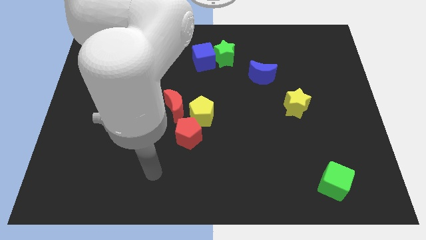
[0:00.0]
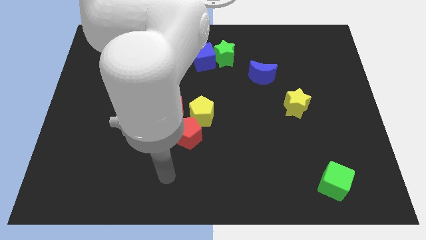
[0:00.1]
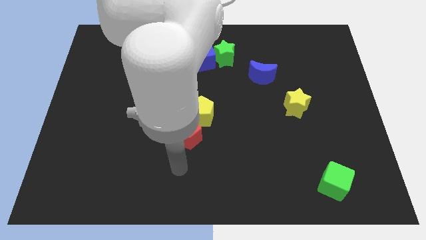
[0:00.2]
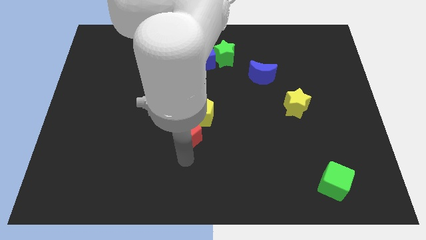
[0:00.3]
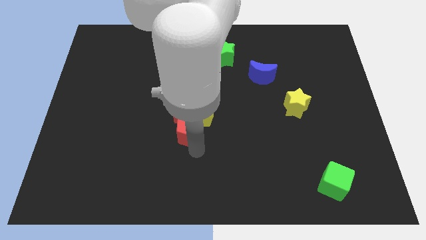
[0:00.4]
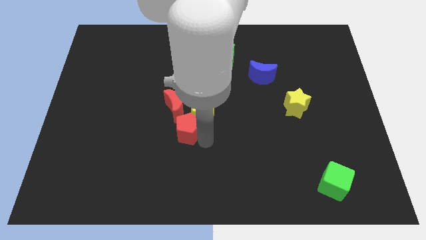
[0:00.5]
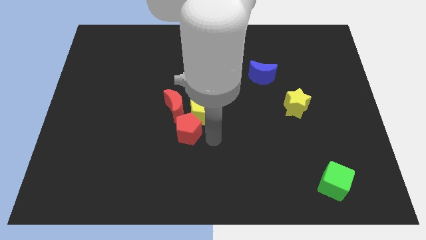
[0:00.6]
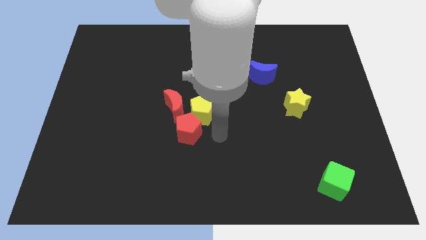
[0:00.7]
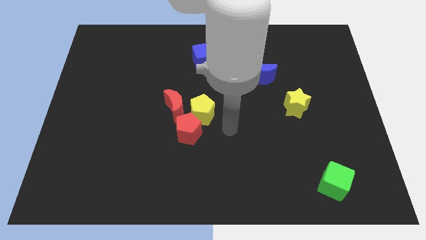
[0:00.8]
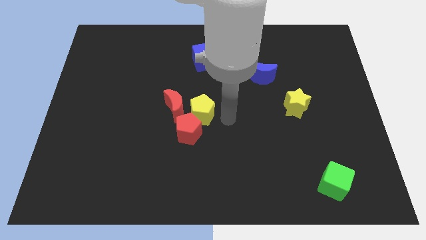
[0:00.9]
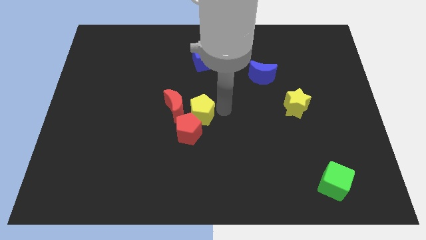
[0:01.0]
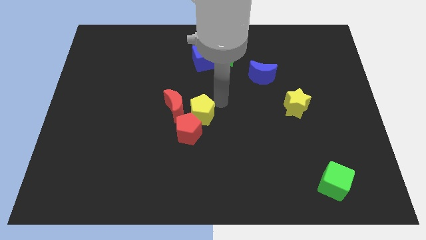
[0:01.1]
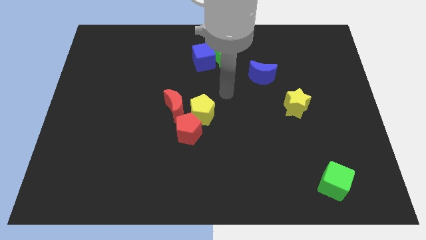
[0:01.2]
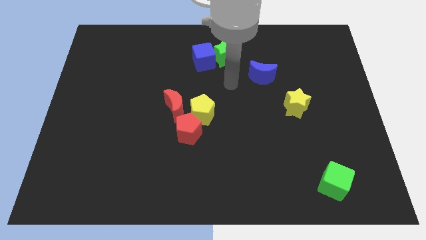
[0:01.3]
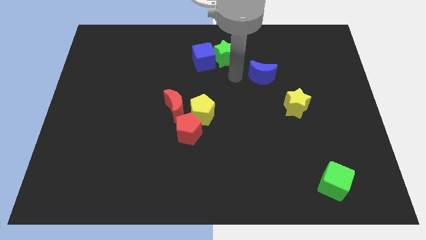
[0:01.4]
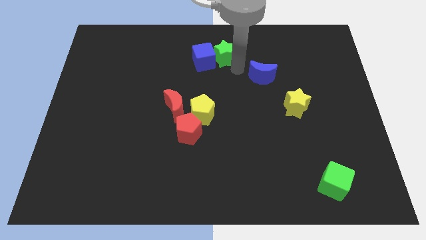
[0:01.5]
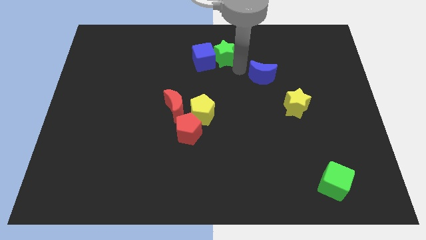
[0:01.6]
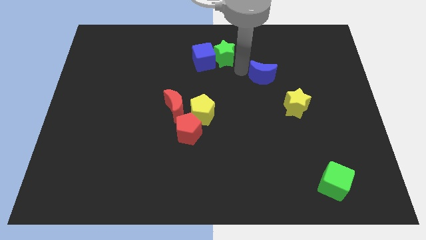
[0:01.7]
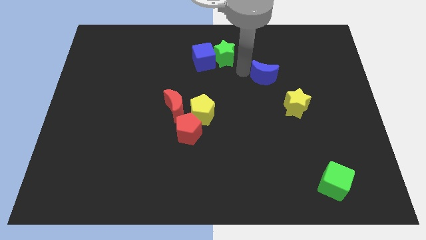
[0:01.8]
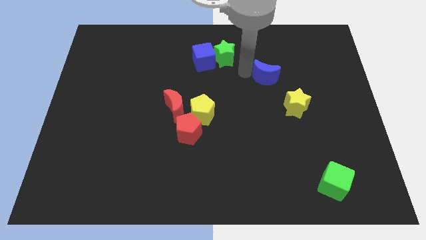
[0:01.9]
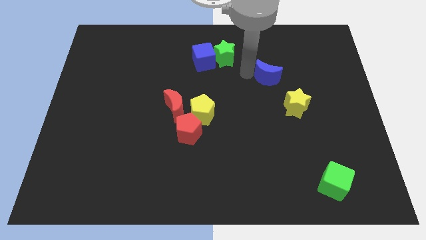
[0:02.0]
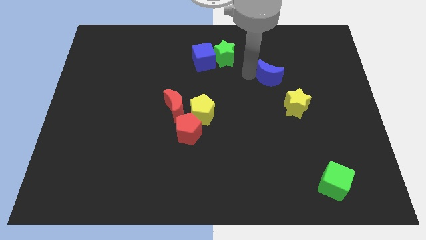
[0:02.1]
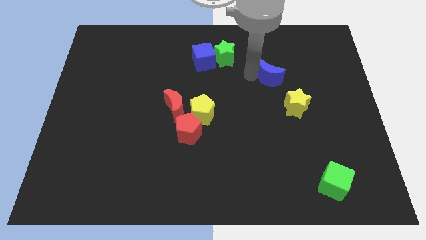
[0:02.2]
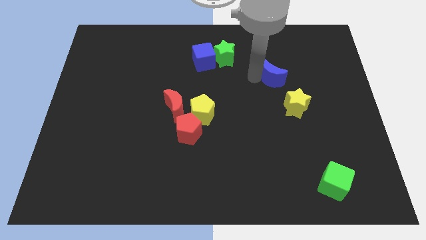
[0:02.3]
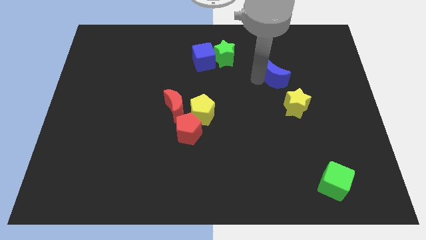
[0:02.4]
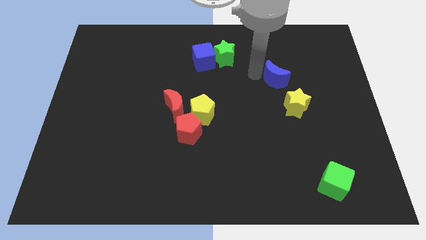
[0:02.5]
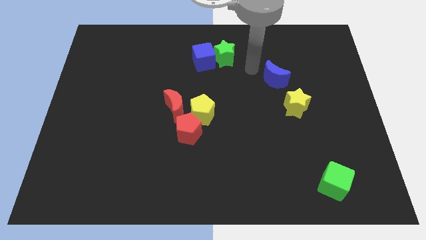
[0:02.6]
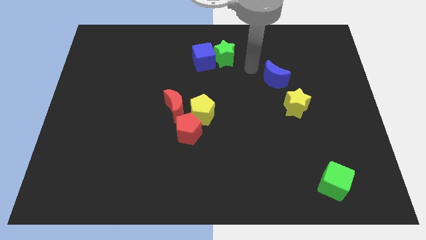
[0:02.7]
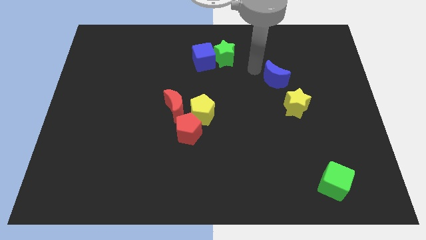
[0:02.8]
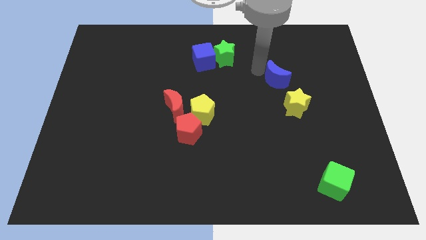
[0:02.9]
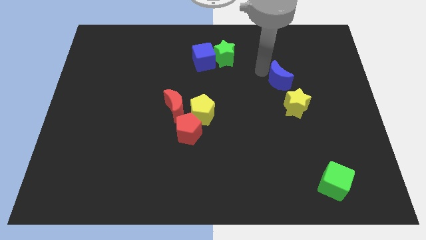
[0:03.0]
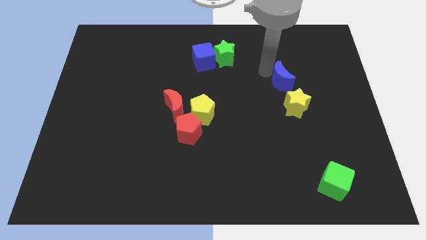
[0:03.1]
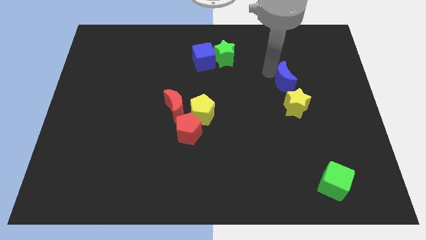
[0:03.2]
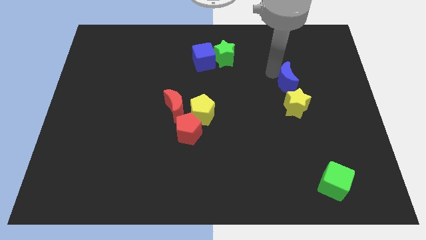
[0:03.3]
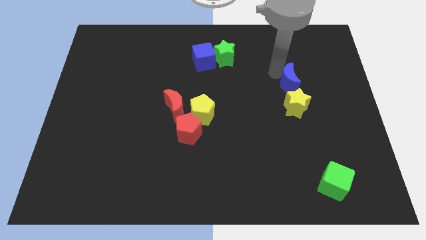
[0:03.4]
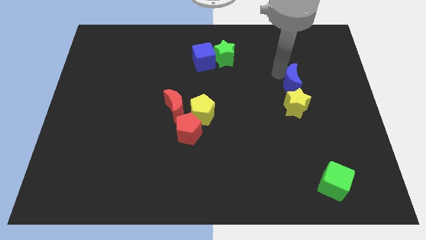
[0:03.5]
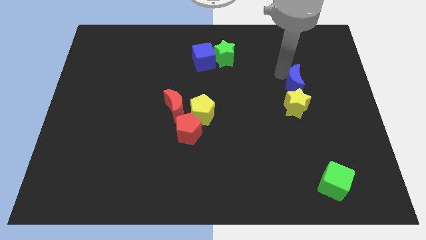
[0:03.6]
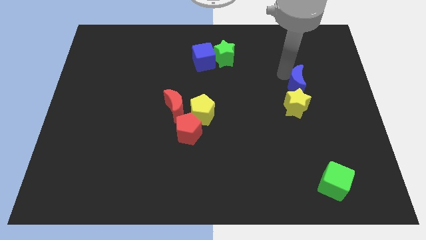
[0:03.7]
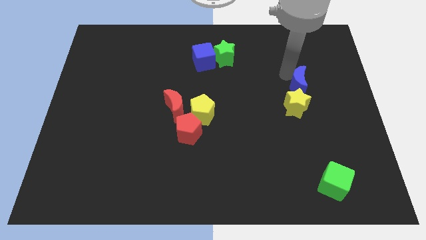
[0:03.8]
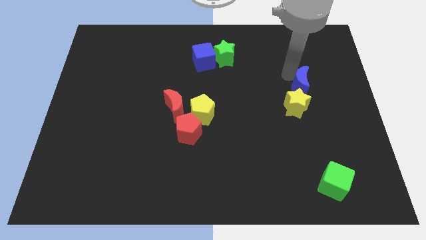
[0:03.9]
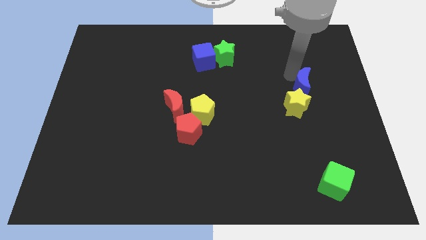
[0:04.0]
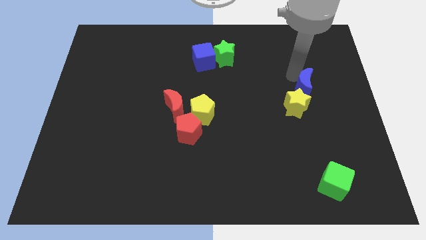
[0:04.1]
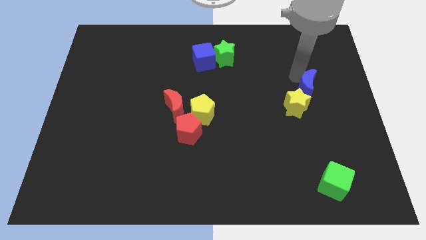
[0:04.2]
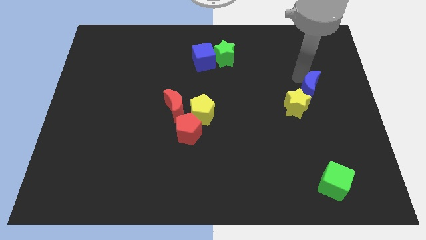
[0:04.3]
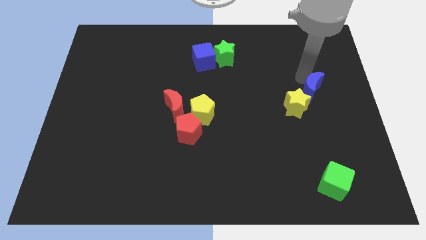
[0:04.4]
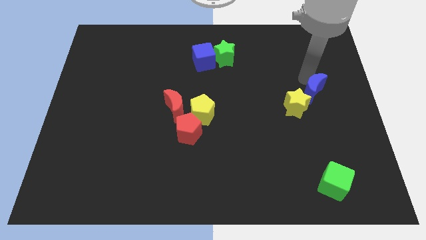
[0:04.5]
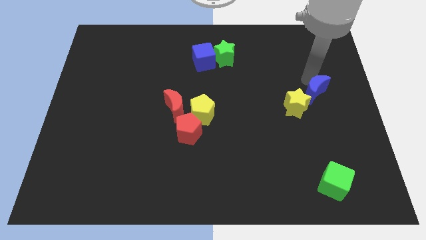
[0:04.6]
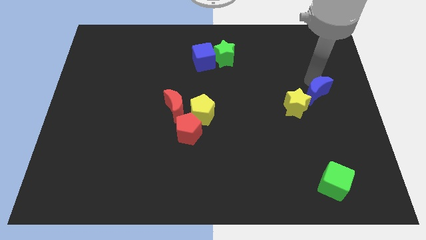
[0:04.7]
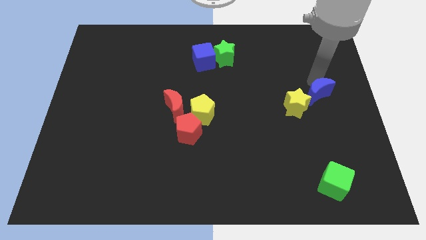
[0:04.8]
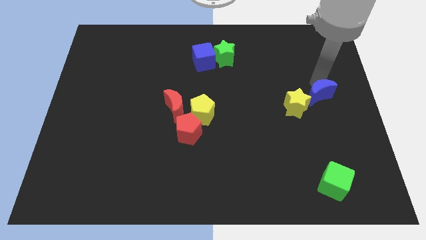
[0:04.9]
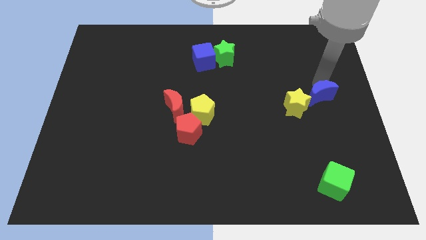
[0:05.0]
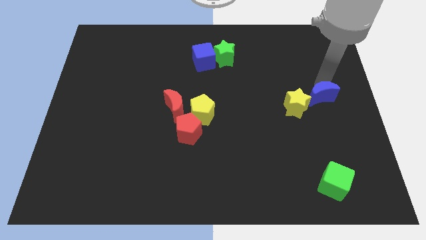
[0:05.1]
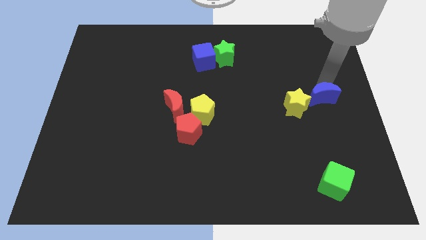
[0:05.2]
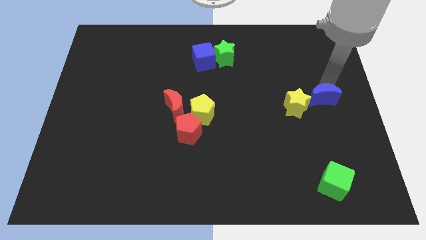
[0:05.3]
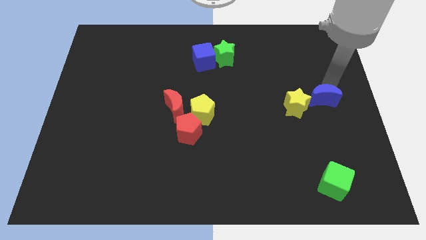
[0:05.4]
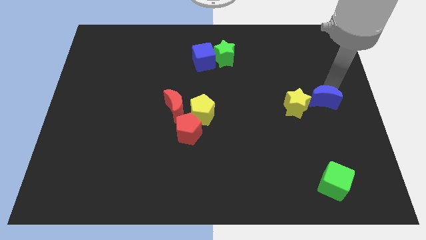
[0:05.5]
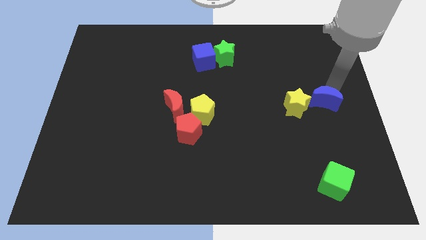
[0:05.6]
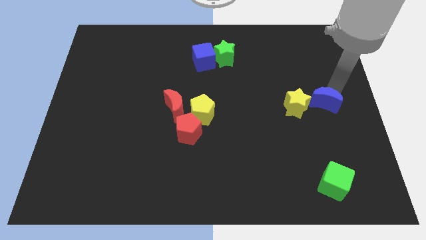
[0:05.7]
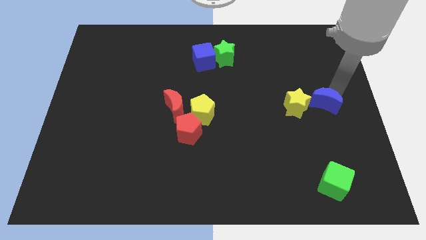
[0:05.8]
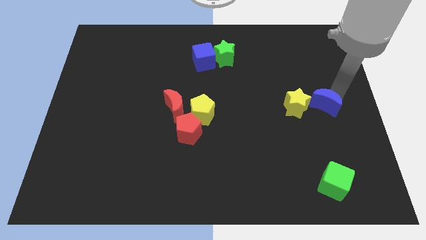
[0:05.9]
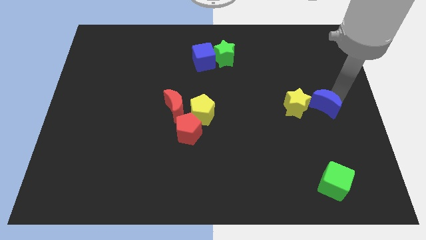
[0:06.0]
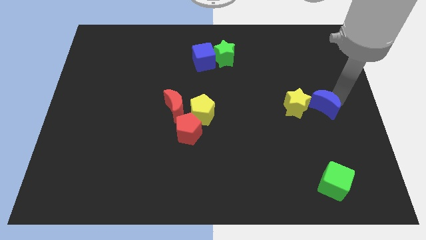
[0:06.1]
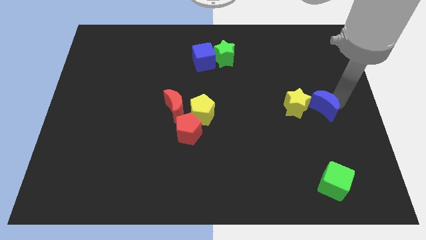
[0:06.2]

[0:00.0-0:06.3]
move the blue moon diagonally down and to the right of the yellow star

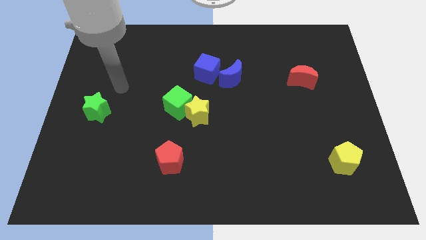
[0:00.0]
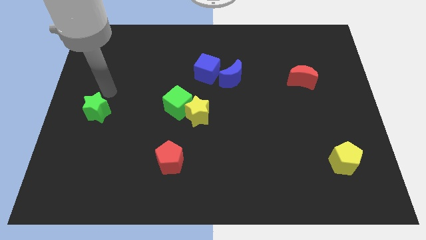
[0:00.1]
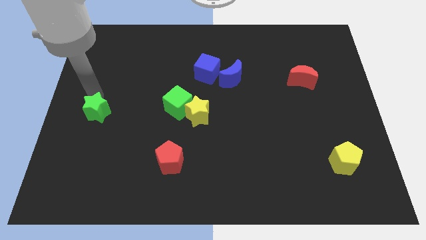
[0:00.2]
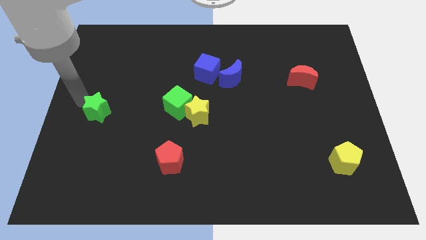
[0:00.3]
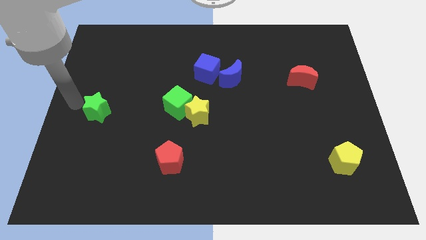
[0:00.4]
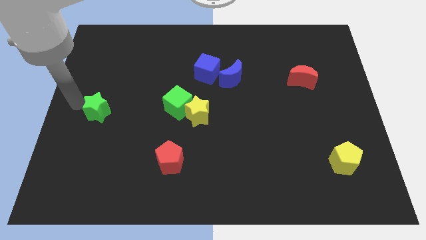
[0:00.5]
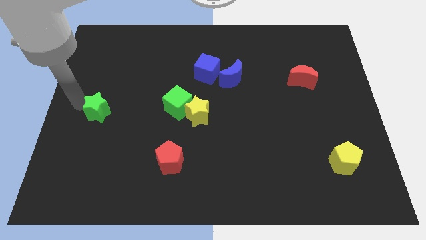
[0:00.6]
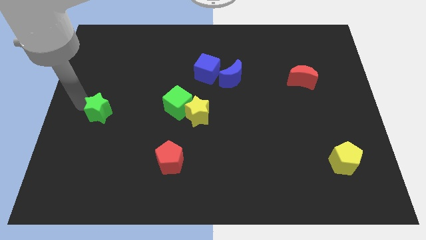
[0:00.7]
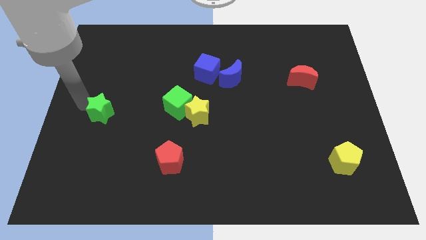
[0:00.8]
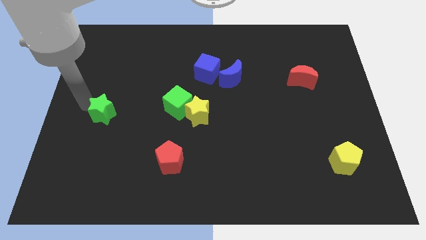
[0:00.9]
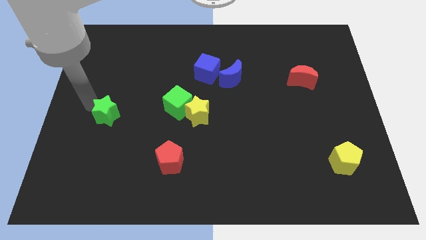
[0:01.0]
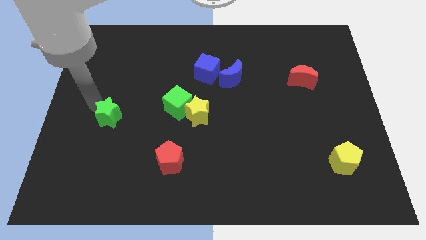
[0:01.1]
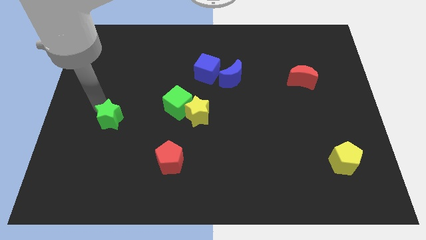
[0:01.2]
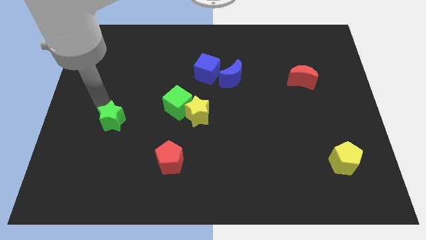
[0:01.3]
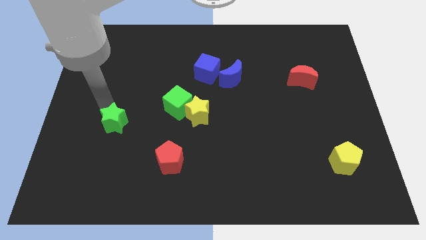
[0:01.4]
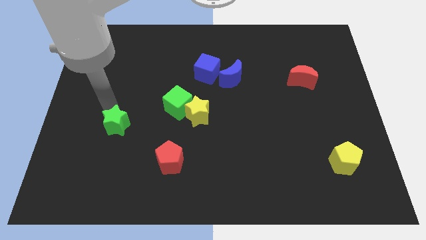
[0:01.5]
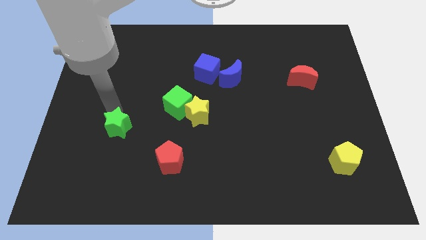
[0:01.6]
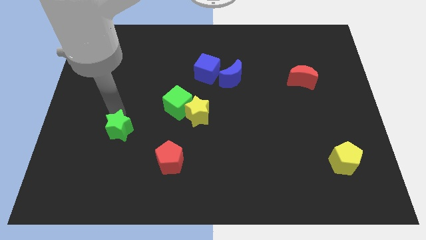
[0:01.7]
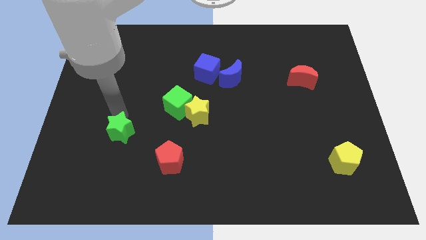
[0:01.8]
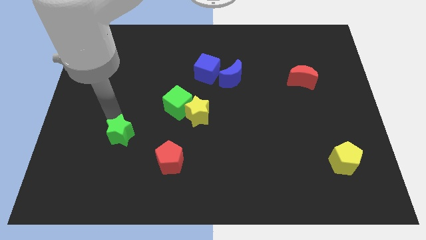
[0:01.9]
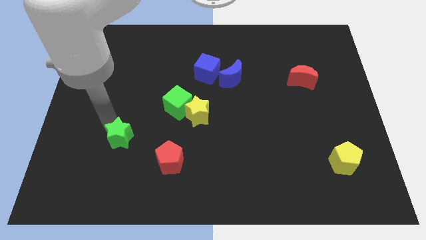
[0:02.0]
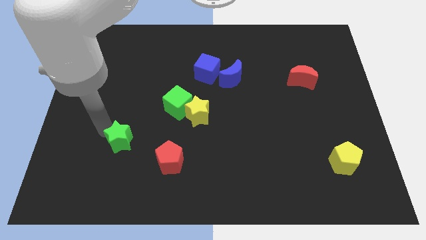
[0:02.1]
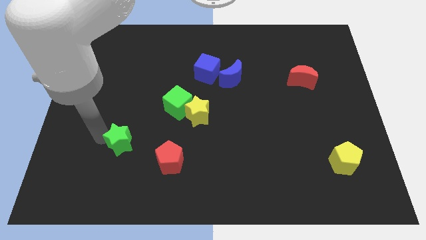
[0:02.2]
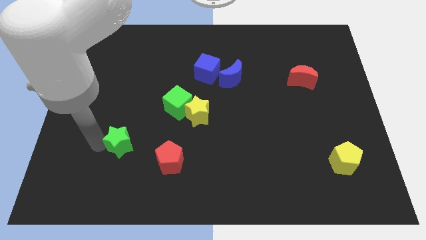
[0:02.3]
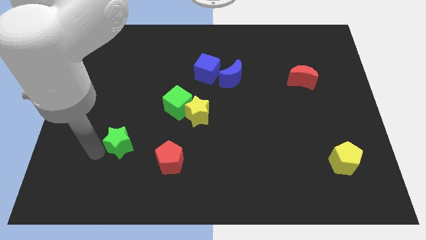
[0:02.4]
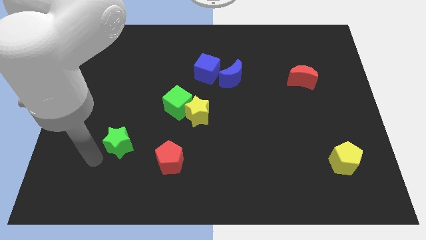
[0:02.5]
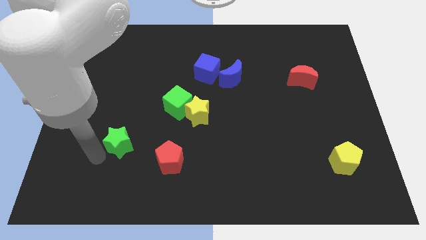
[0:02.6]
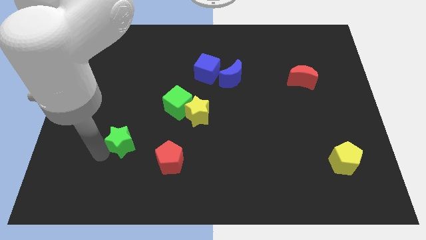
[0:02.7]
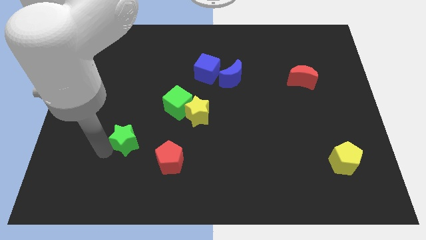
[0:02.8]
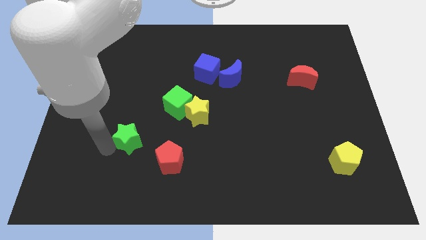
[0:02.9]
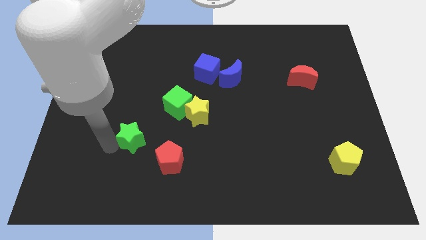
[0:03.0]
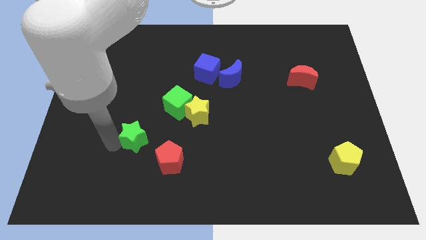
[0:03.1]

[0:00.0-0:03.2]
move the green star diagonally down and to the left of the green cube
